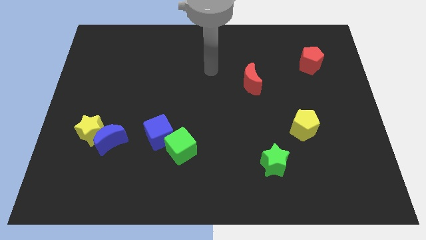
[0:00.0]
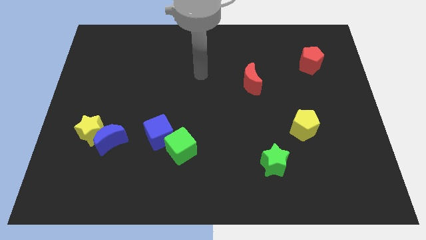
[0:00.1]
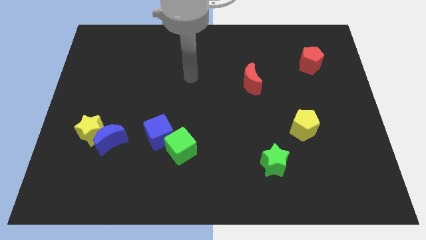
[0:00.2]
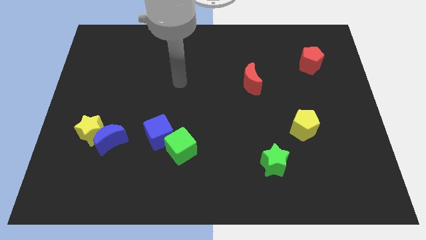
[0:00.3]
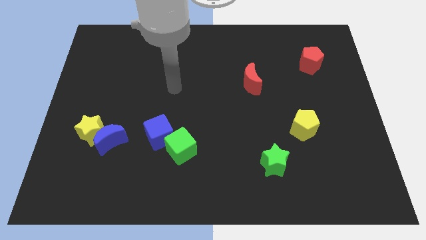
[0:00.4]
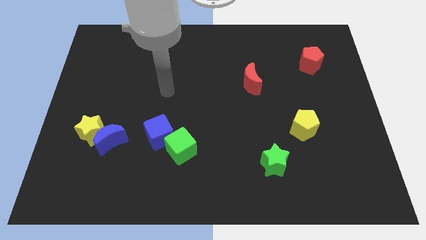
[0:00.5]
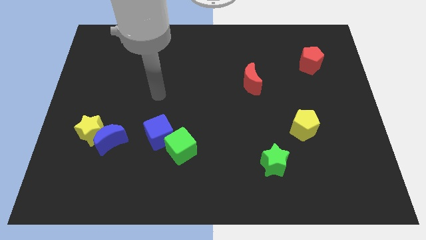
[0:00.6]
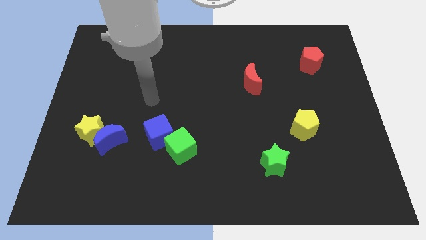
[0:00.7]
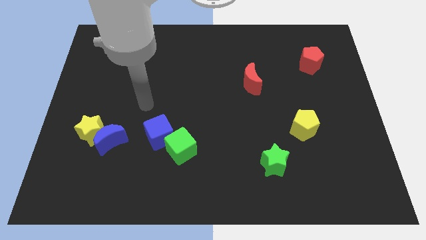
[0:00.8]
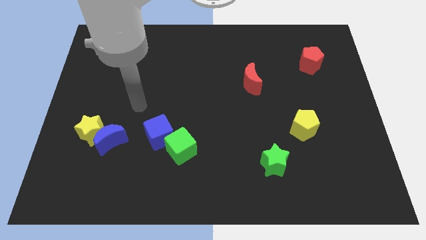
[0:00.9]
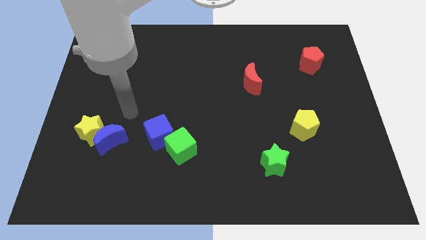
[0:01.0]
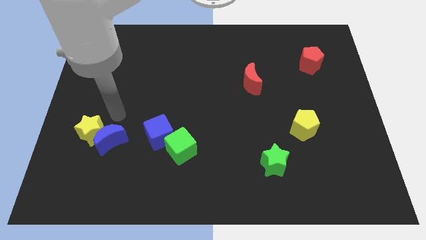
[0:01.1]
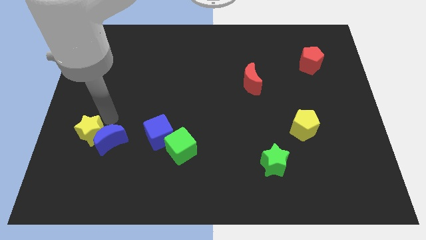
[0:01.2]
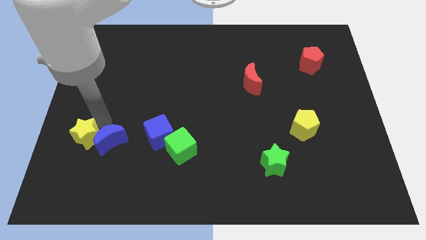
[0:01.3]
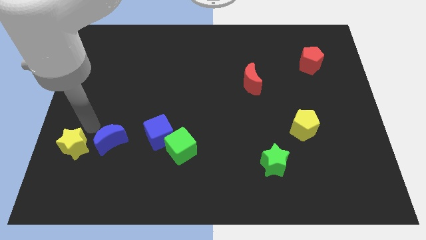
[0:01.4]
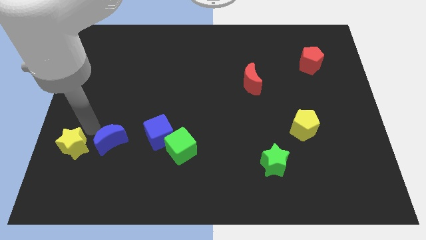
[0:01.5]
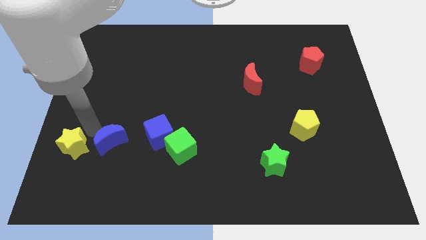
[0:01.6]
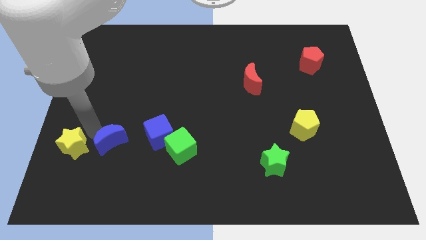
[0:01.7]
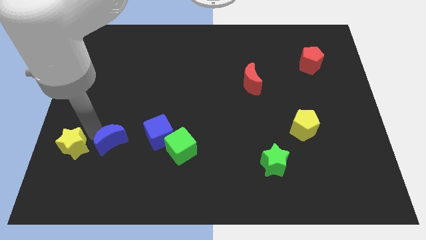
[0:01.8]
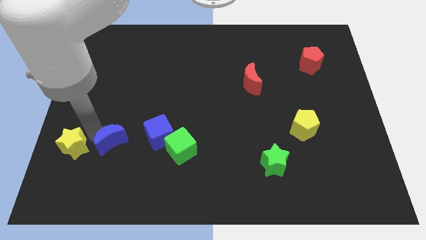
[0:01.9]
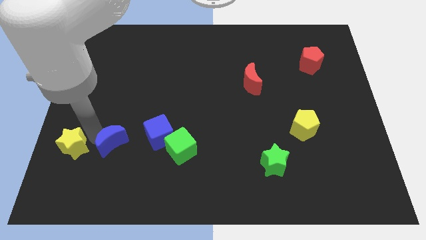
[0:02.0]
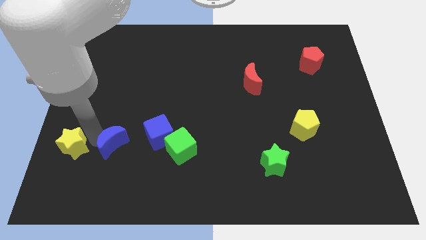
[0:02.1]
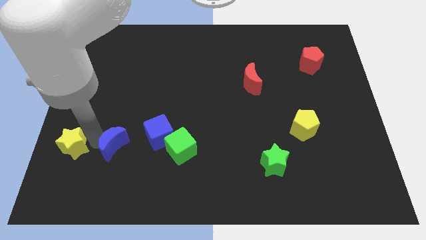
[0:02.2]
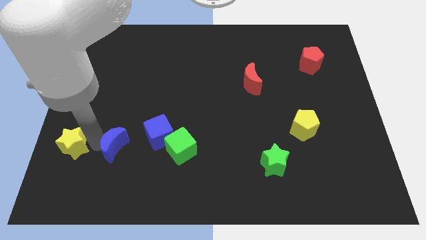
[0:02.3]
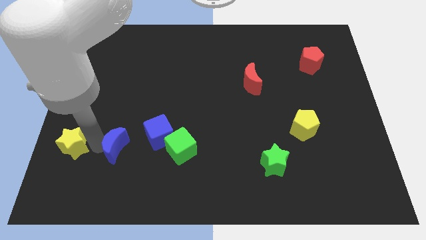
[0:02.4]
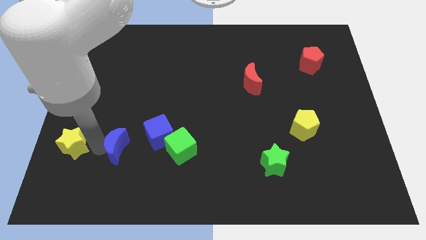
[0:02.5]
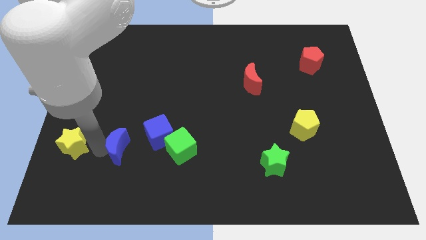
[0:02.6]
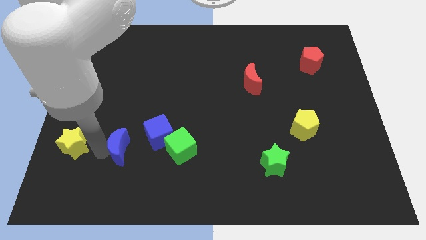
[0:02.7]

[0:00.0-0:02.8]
move the blue moon away from the yellow star

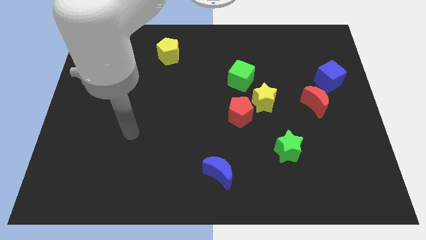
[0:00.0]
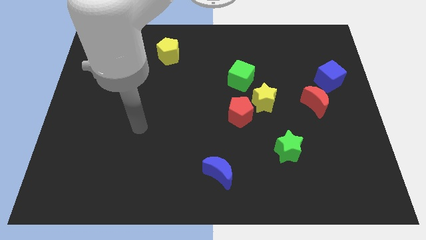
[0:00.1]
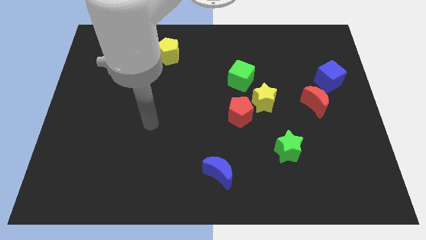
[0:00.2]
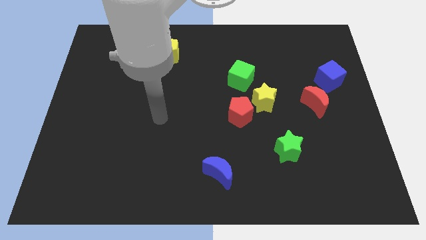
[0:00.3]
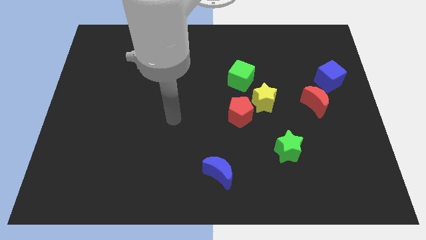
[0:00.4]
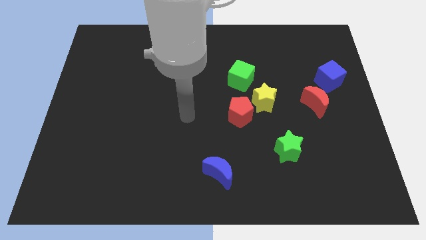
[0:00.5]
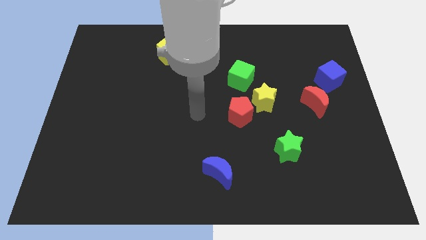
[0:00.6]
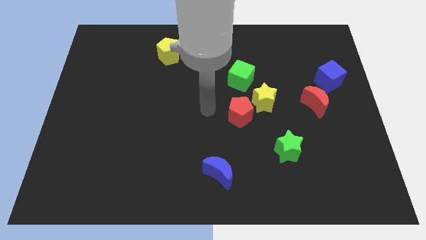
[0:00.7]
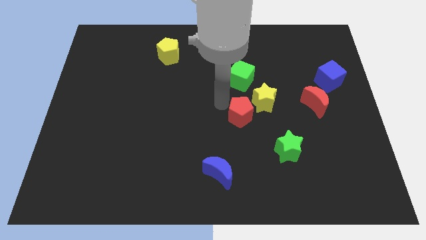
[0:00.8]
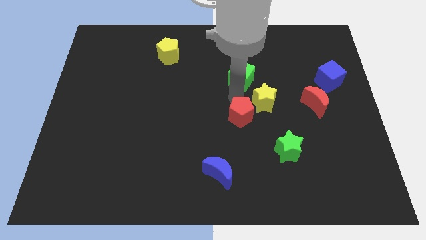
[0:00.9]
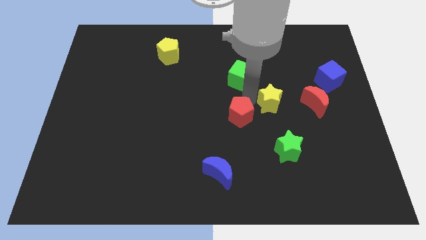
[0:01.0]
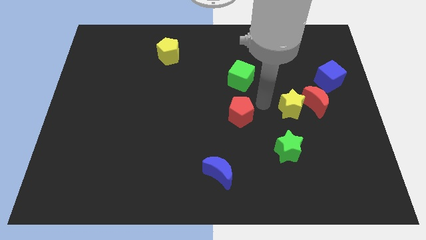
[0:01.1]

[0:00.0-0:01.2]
move the red pentagon away from the yellow star

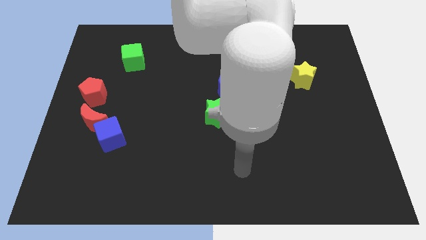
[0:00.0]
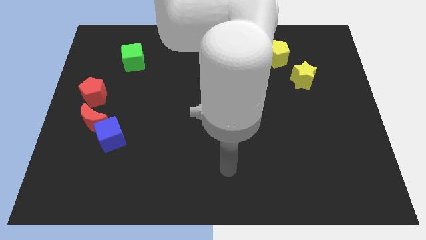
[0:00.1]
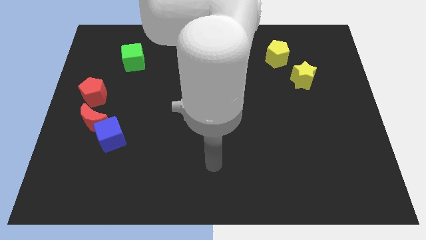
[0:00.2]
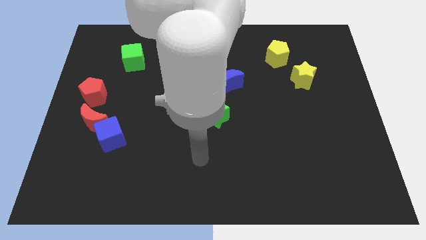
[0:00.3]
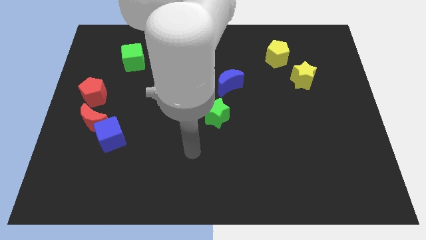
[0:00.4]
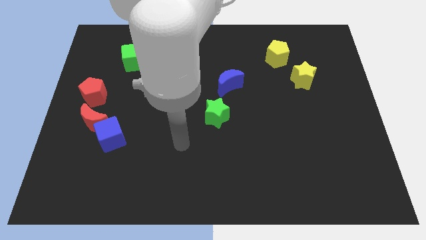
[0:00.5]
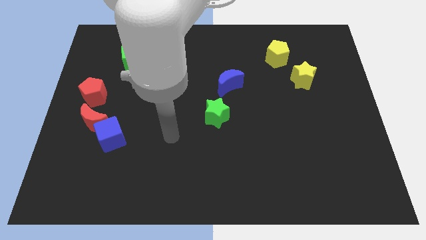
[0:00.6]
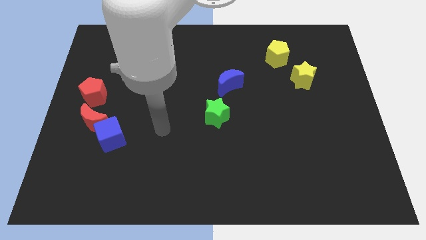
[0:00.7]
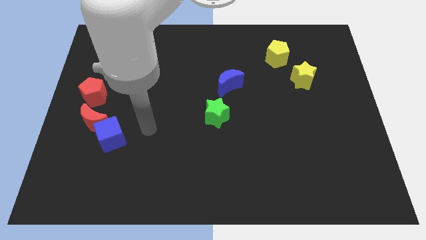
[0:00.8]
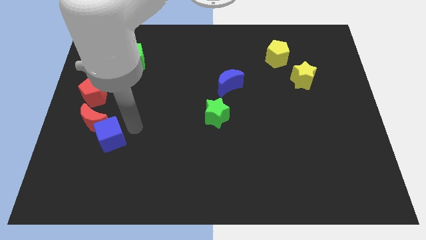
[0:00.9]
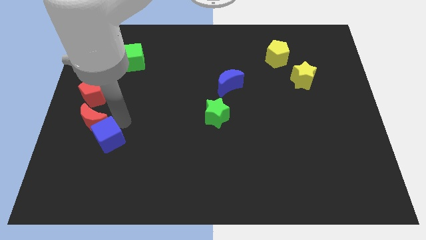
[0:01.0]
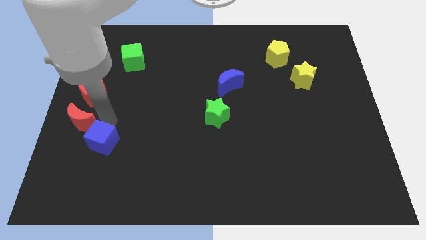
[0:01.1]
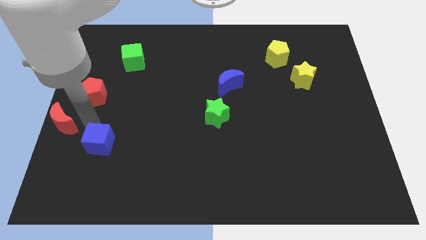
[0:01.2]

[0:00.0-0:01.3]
separate the blue cube from the red moon

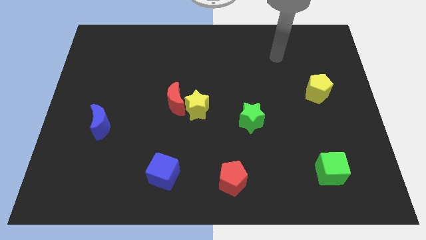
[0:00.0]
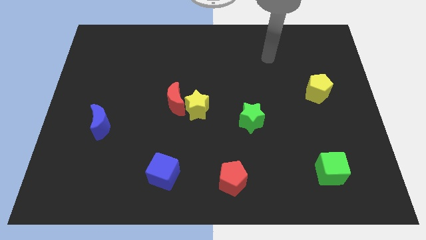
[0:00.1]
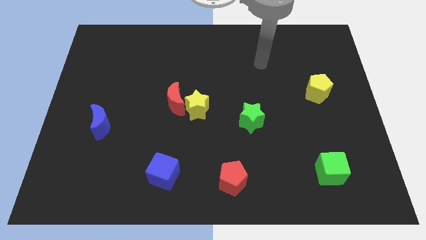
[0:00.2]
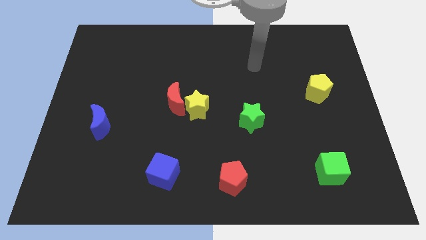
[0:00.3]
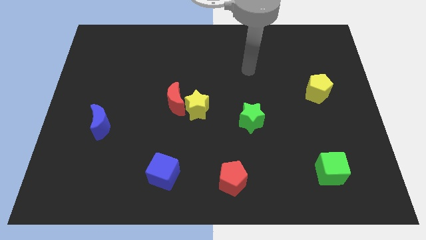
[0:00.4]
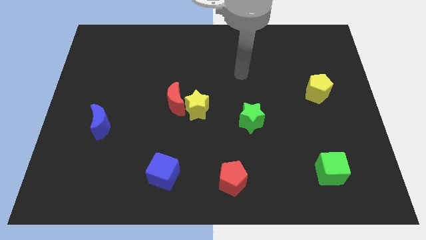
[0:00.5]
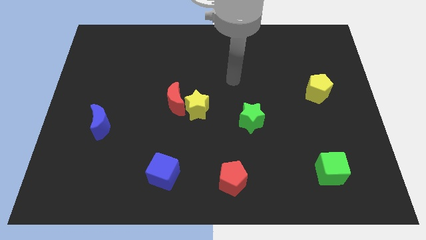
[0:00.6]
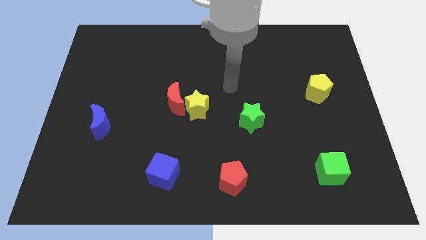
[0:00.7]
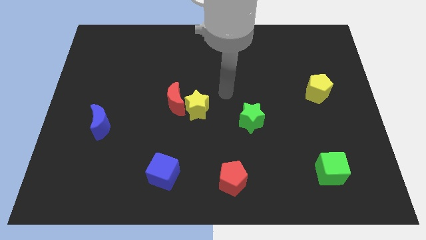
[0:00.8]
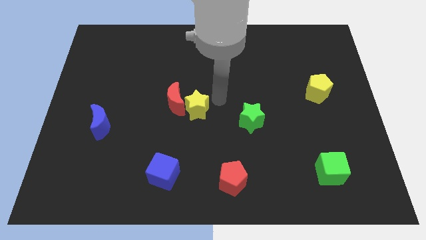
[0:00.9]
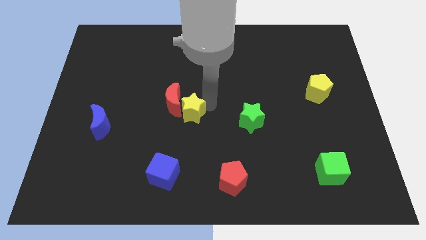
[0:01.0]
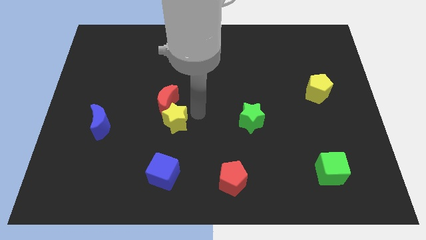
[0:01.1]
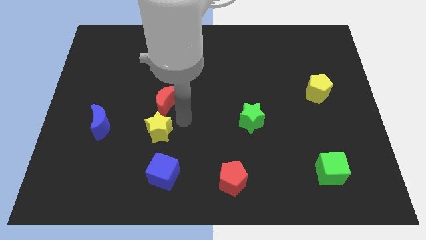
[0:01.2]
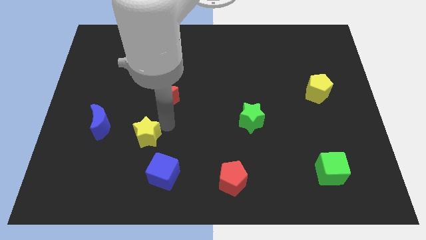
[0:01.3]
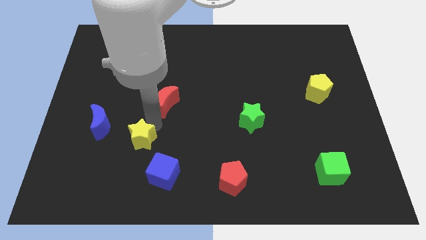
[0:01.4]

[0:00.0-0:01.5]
separate the red moon from the yellow star

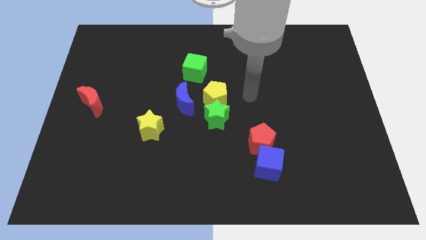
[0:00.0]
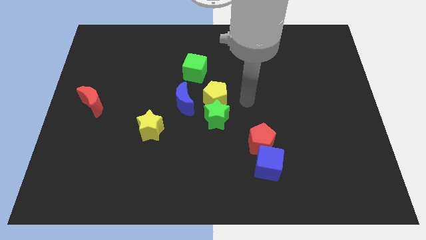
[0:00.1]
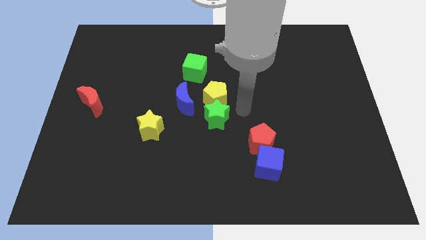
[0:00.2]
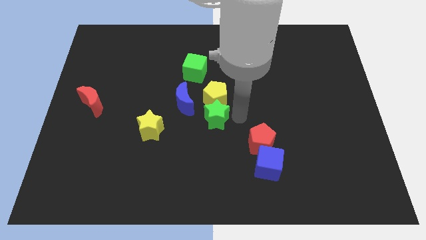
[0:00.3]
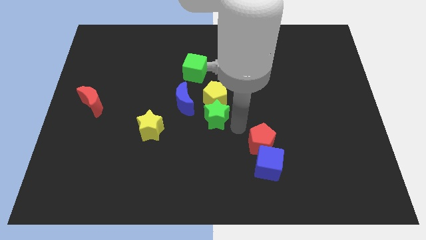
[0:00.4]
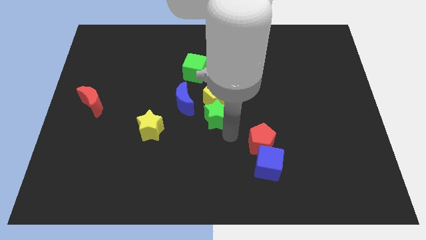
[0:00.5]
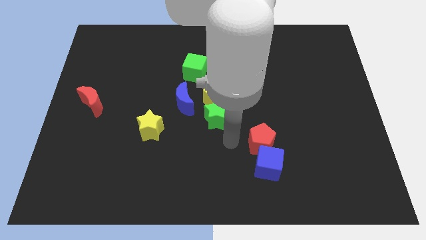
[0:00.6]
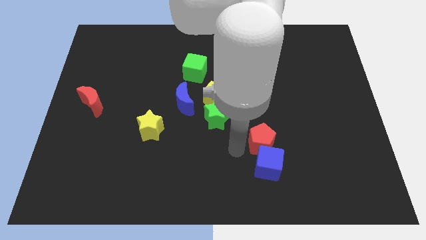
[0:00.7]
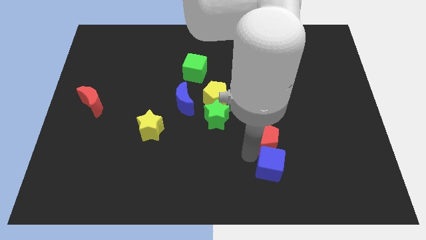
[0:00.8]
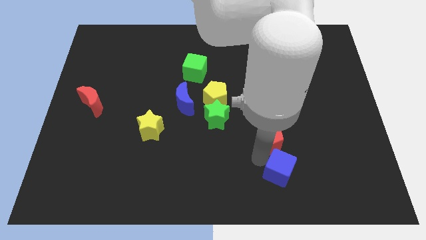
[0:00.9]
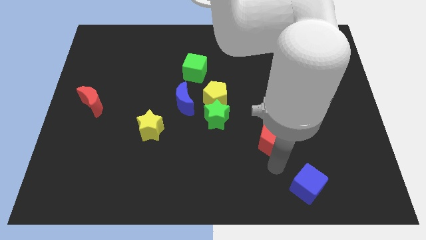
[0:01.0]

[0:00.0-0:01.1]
separate the red pentagon from the blue cube

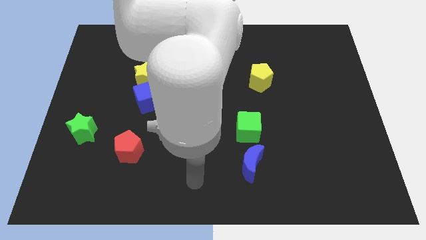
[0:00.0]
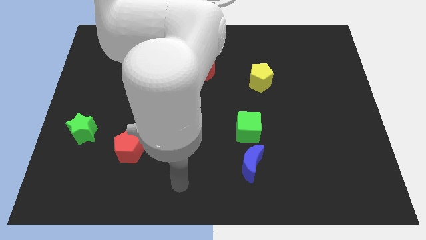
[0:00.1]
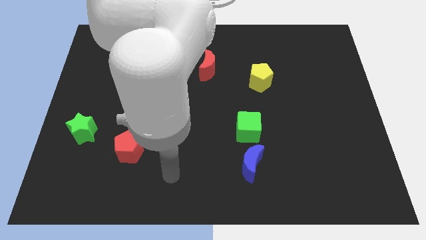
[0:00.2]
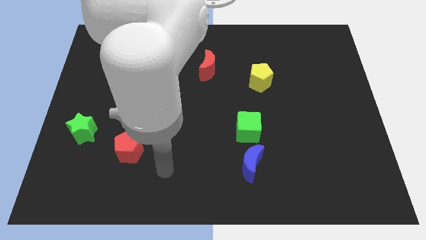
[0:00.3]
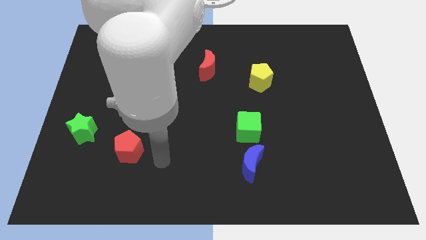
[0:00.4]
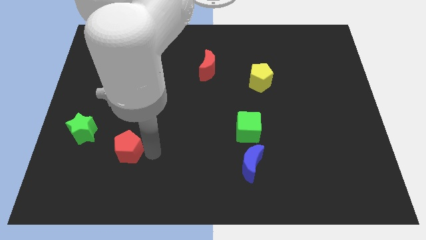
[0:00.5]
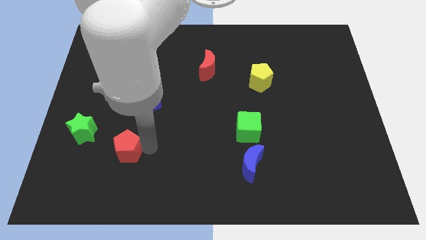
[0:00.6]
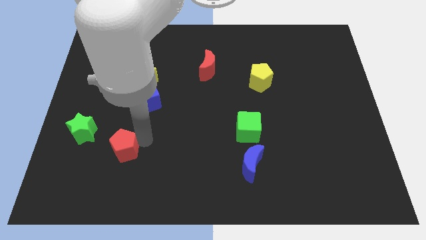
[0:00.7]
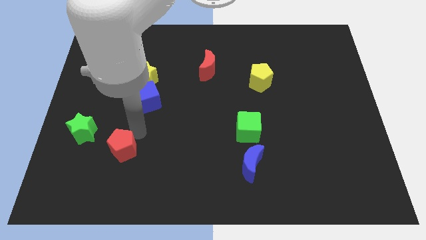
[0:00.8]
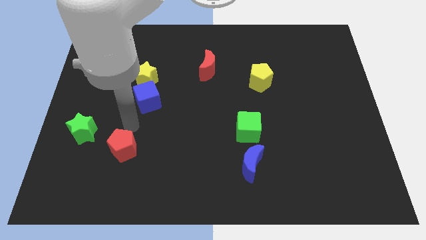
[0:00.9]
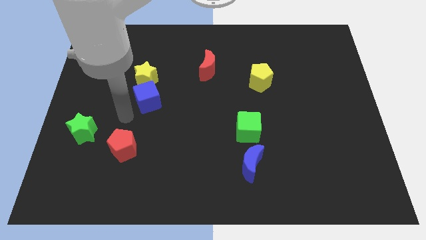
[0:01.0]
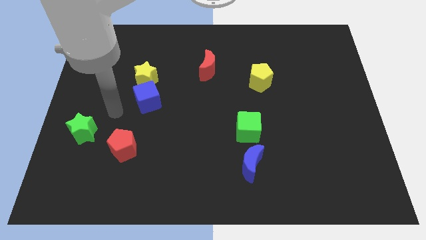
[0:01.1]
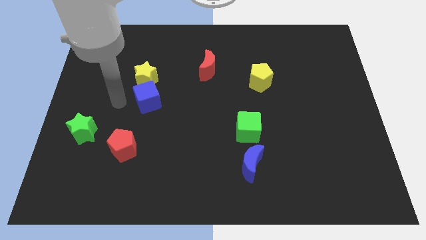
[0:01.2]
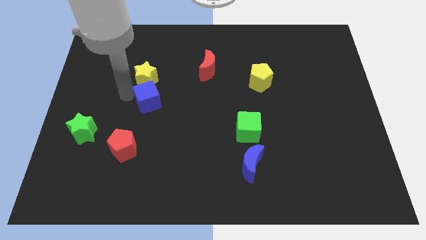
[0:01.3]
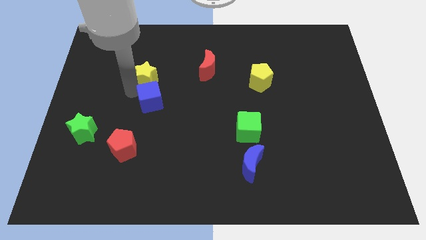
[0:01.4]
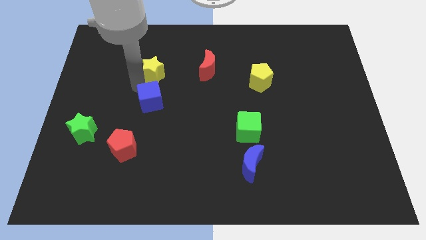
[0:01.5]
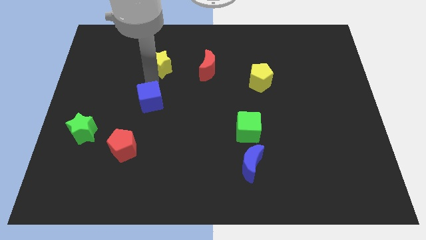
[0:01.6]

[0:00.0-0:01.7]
move the blue cube away from the yellow star
